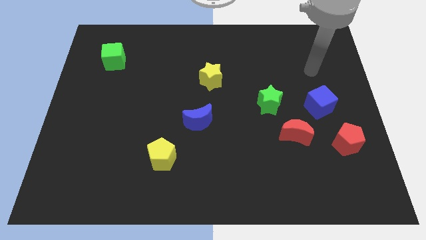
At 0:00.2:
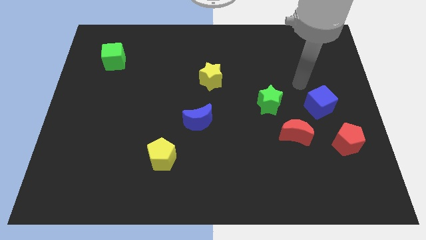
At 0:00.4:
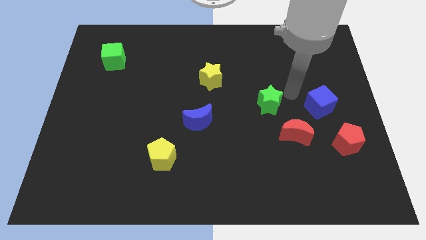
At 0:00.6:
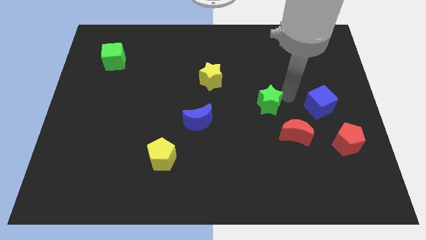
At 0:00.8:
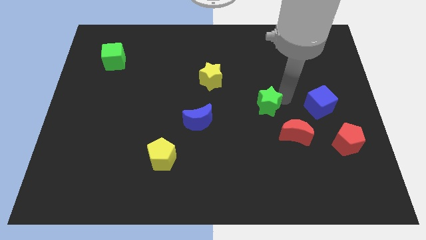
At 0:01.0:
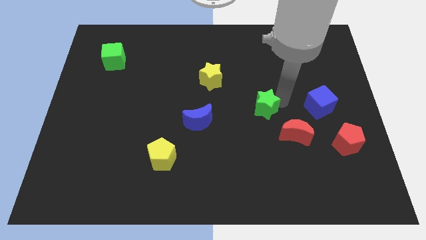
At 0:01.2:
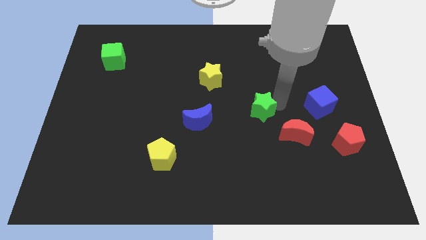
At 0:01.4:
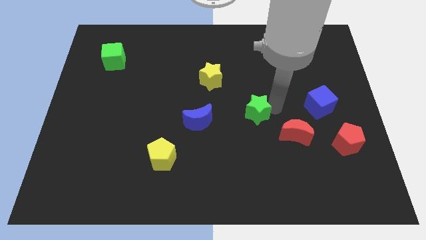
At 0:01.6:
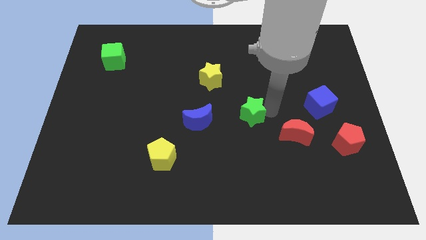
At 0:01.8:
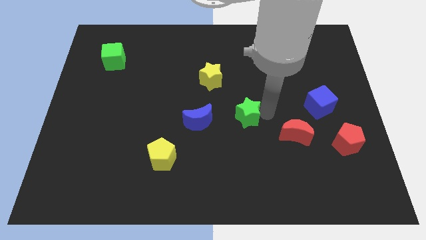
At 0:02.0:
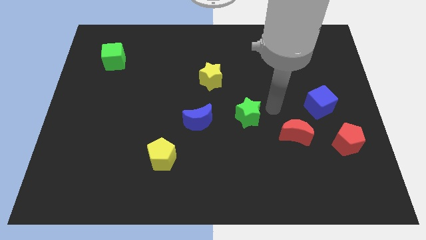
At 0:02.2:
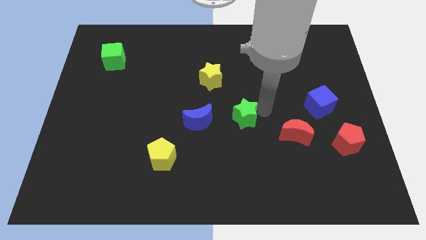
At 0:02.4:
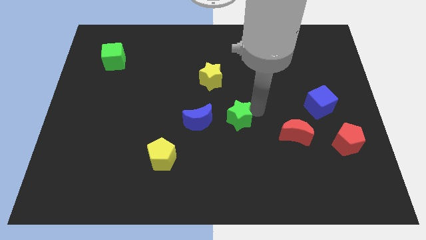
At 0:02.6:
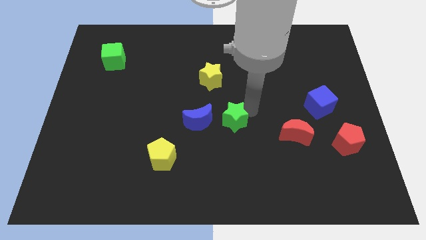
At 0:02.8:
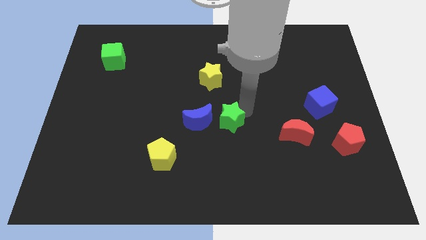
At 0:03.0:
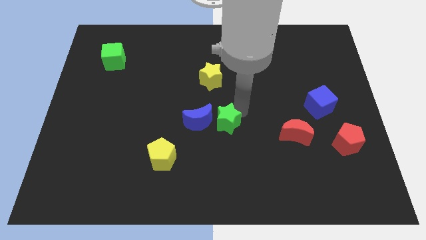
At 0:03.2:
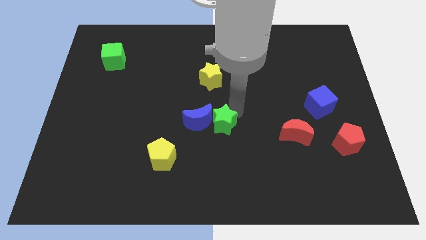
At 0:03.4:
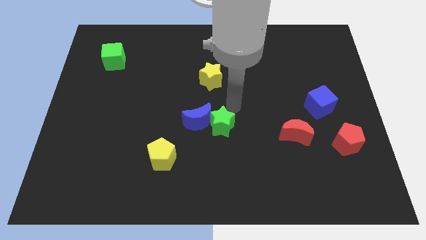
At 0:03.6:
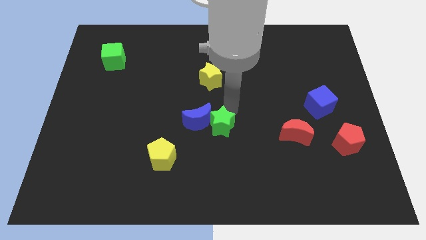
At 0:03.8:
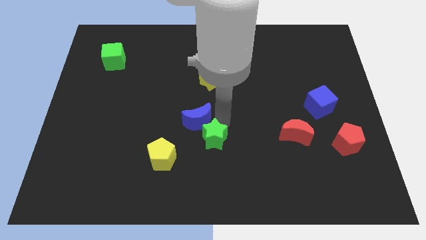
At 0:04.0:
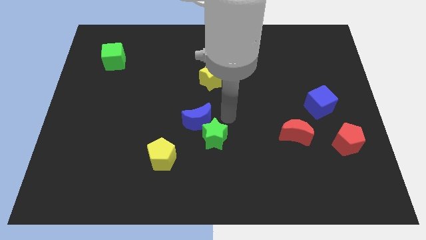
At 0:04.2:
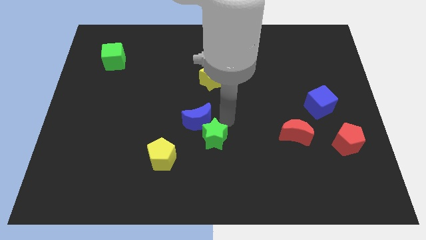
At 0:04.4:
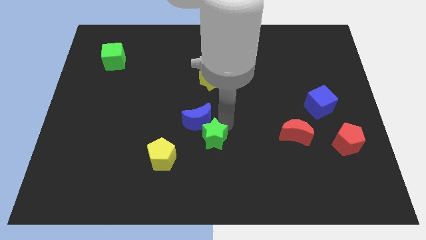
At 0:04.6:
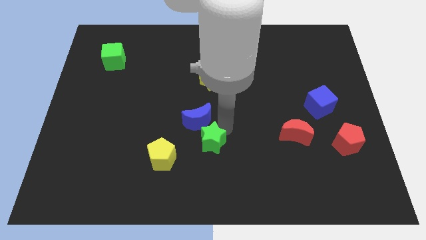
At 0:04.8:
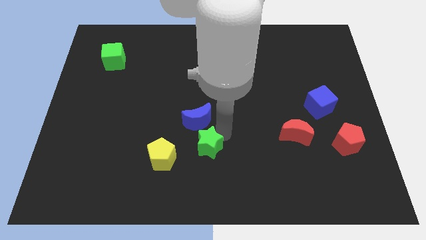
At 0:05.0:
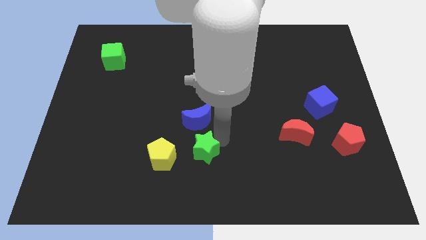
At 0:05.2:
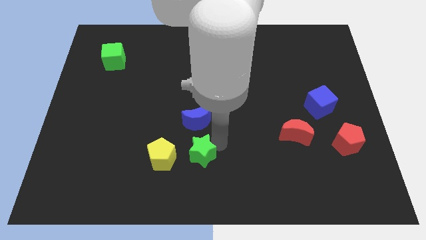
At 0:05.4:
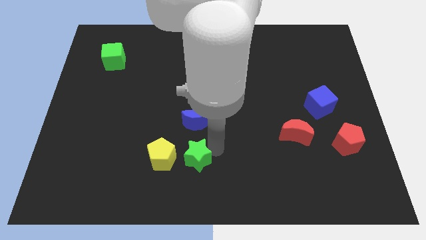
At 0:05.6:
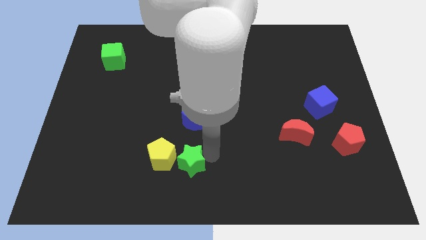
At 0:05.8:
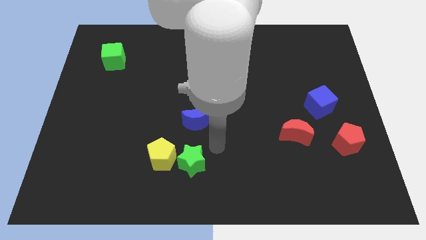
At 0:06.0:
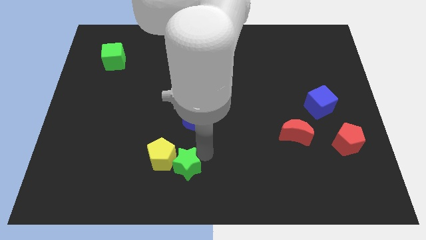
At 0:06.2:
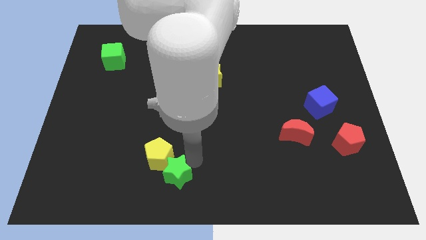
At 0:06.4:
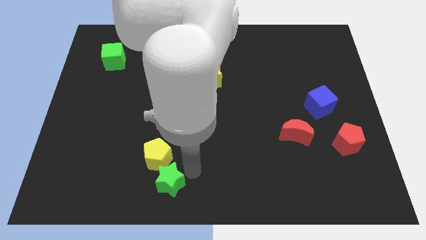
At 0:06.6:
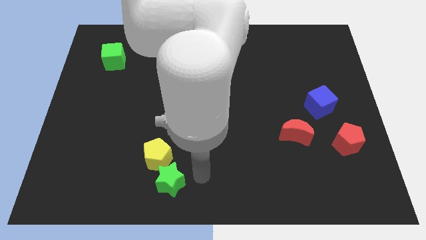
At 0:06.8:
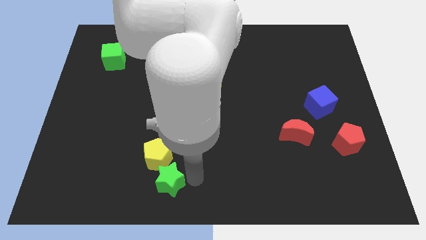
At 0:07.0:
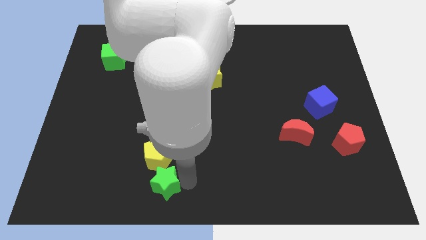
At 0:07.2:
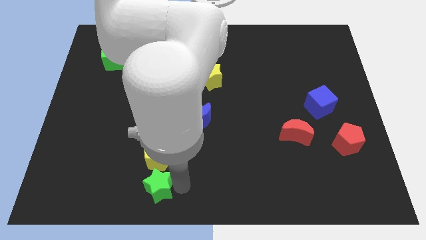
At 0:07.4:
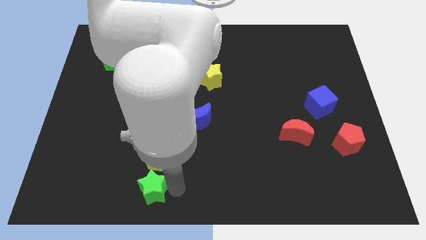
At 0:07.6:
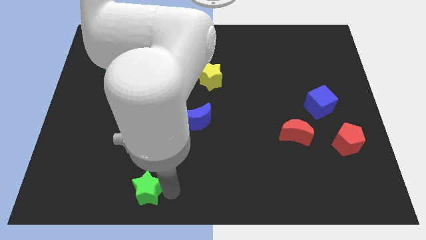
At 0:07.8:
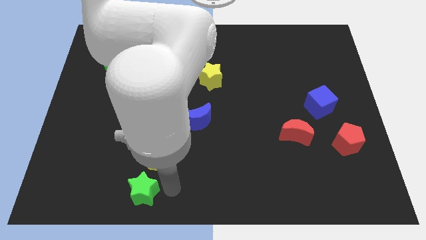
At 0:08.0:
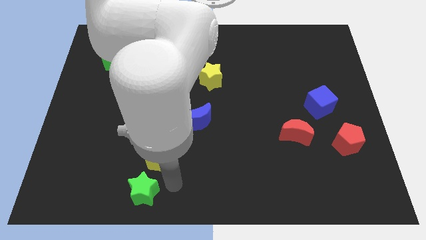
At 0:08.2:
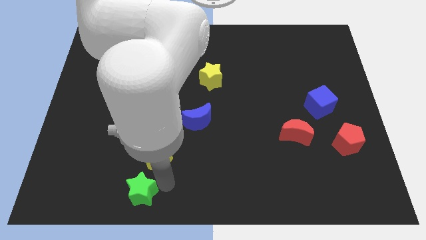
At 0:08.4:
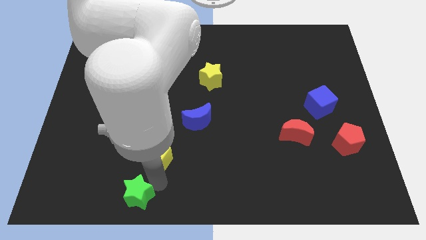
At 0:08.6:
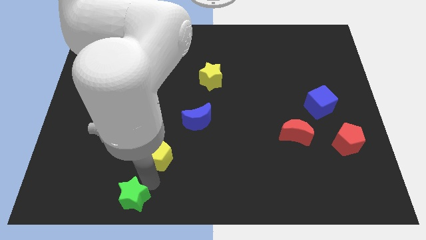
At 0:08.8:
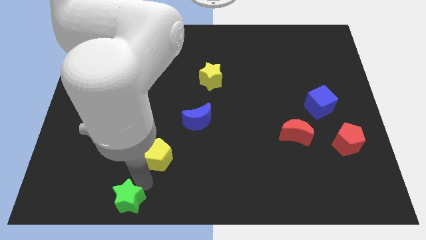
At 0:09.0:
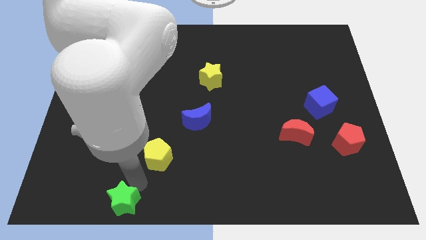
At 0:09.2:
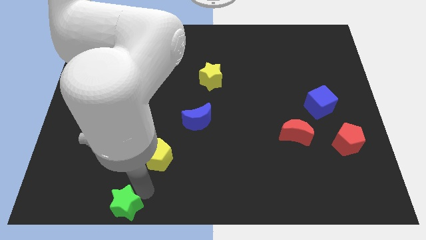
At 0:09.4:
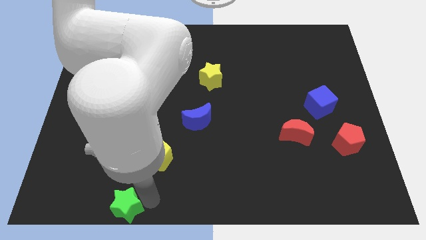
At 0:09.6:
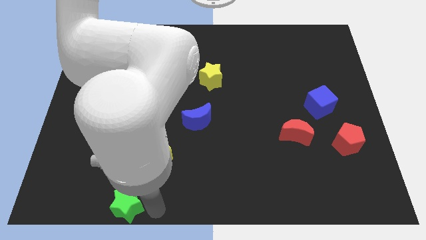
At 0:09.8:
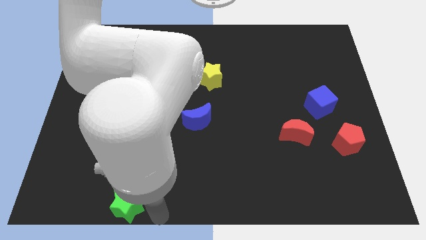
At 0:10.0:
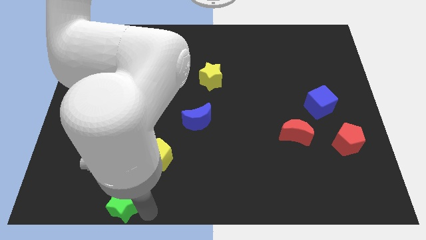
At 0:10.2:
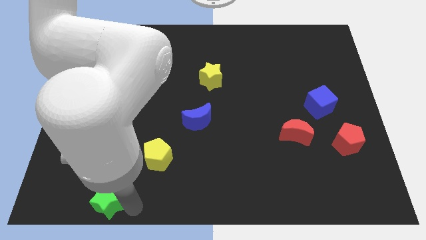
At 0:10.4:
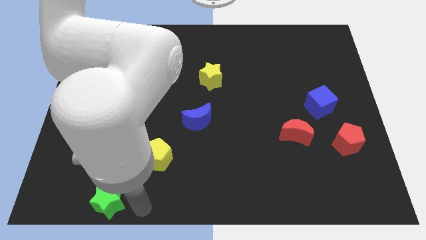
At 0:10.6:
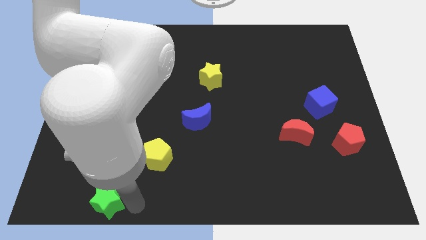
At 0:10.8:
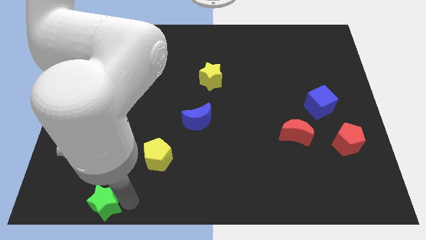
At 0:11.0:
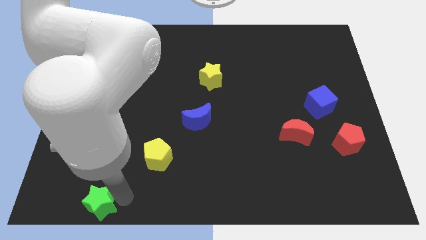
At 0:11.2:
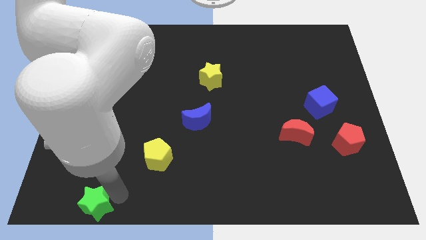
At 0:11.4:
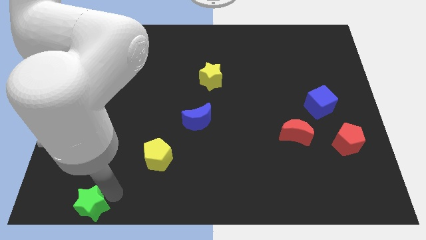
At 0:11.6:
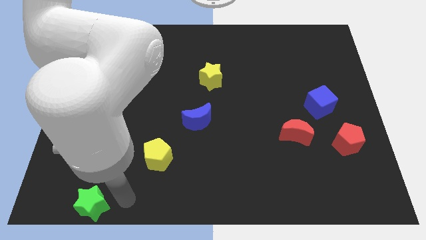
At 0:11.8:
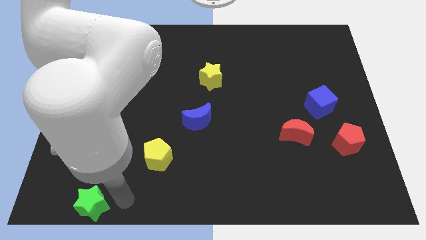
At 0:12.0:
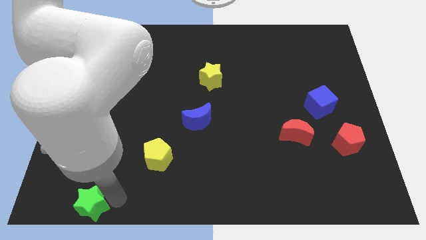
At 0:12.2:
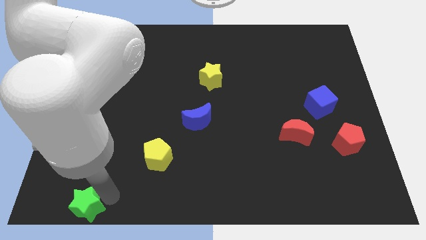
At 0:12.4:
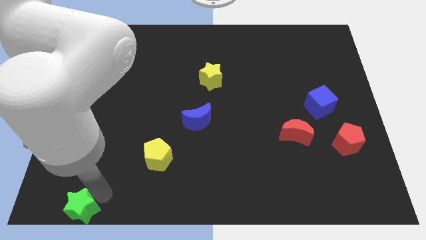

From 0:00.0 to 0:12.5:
slide the green star to the bottom left of the board
